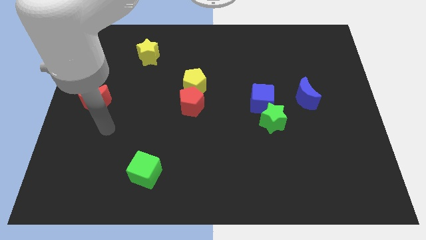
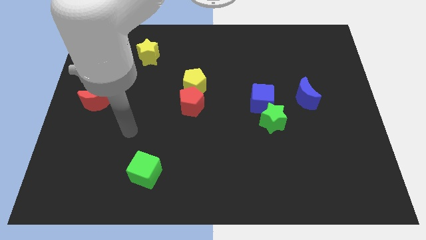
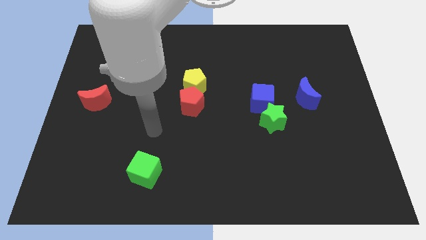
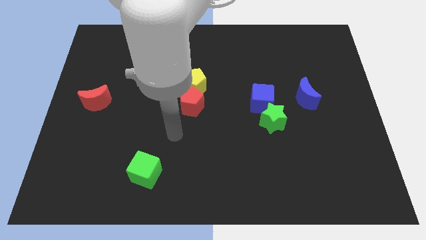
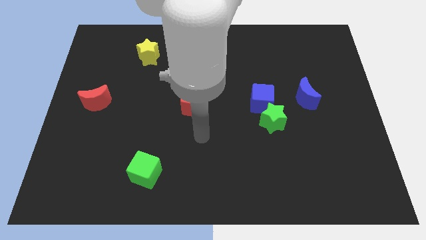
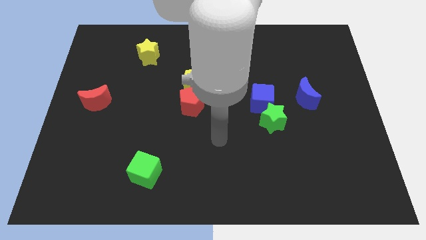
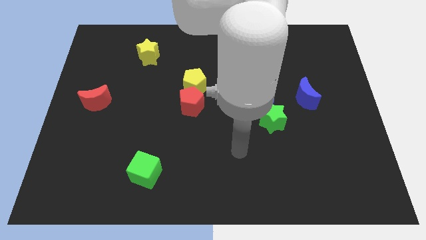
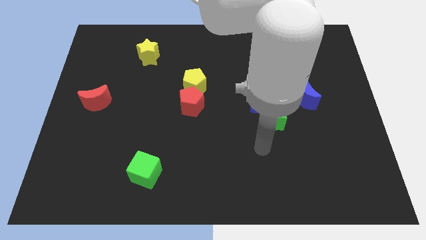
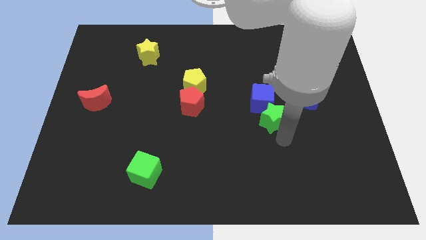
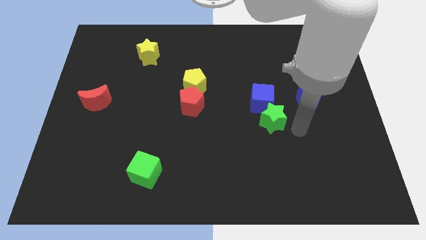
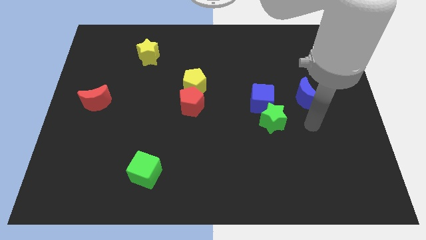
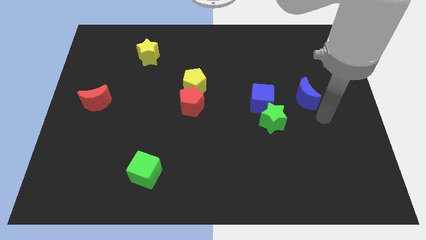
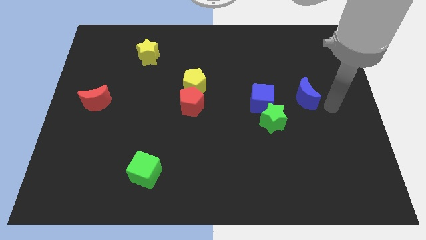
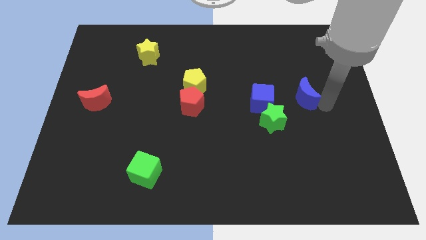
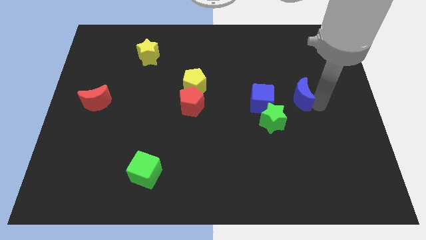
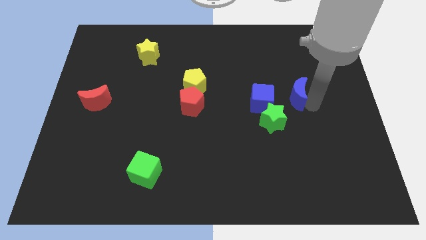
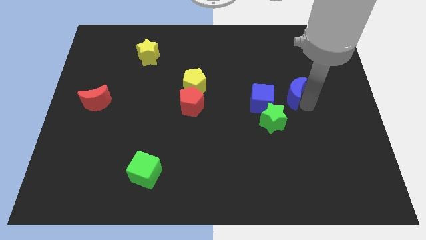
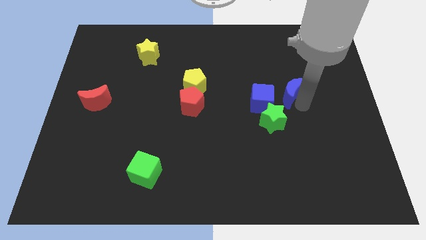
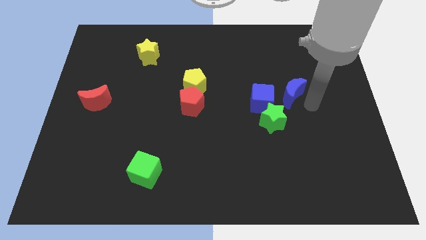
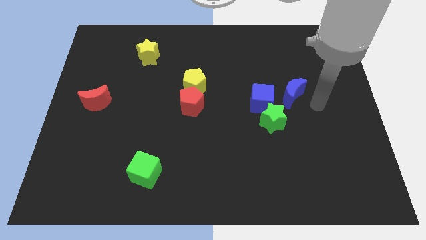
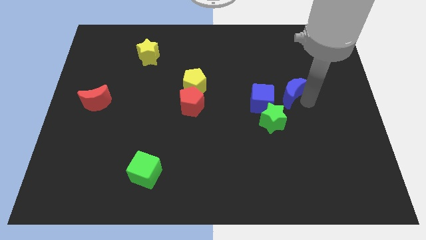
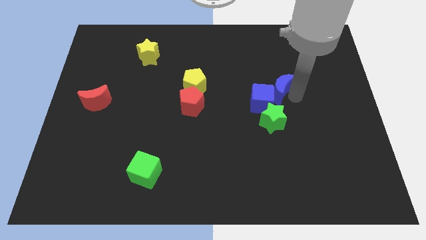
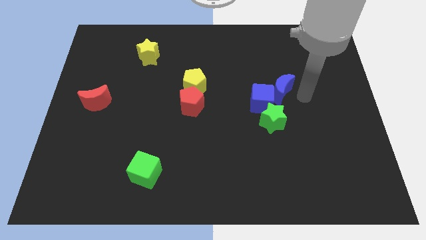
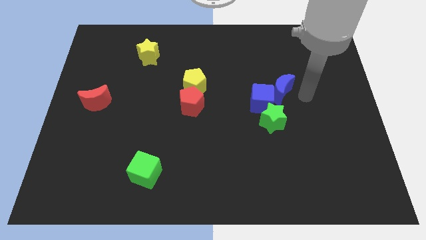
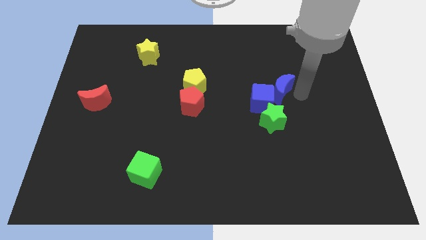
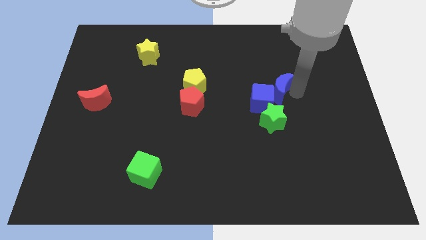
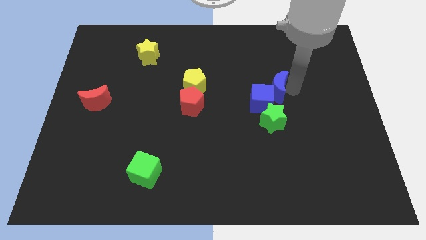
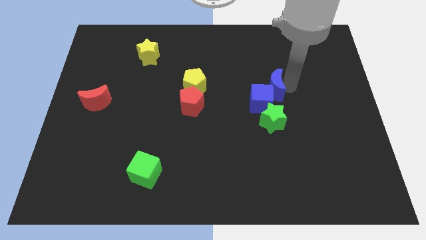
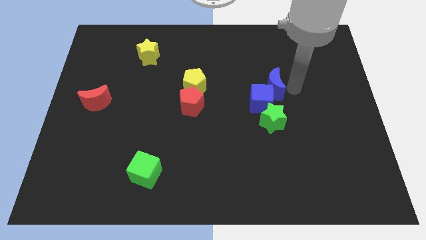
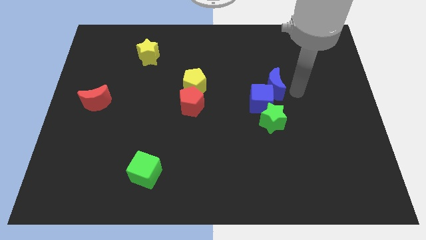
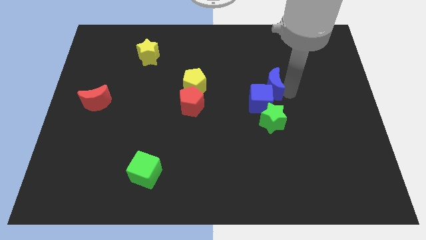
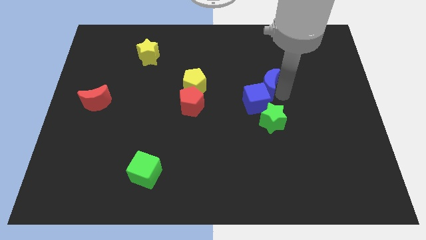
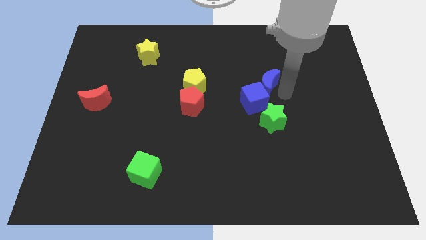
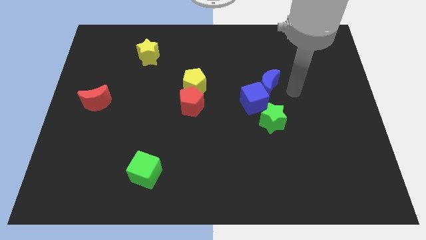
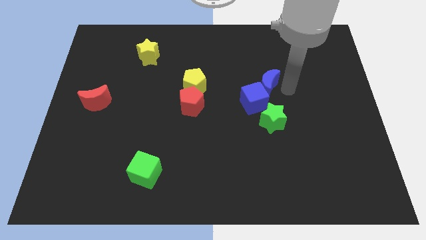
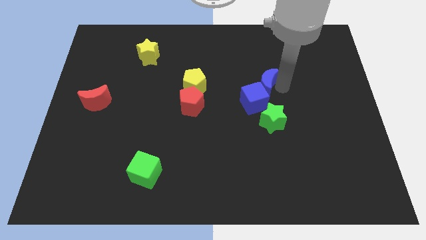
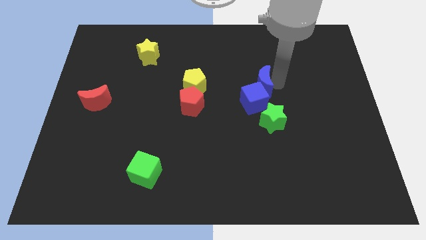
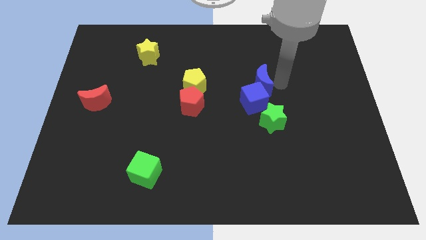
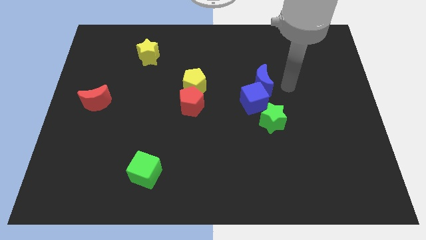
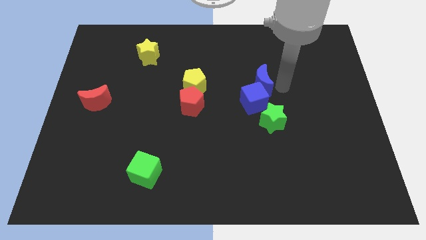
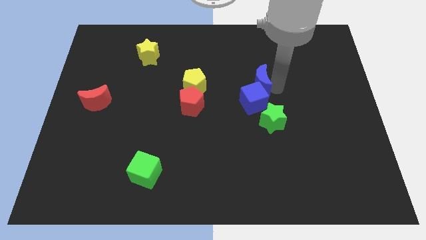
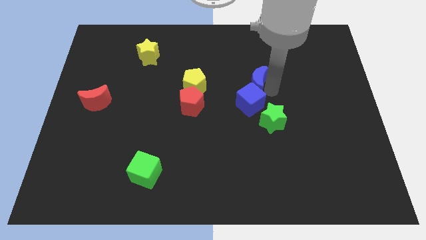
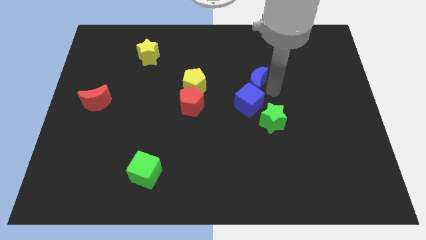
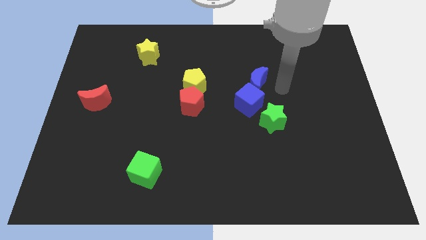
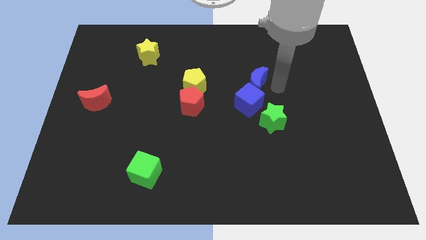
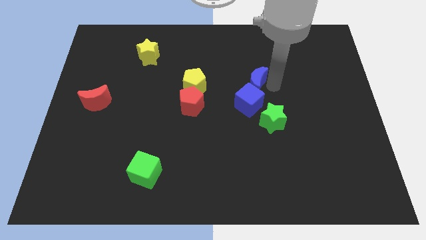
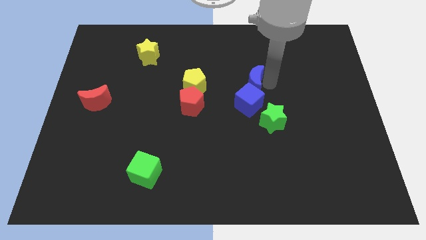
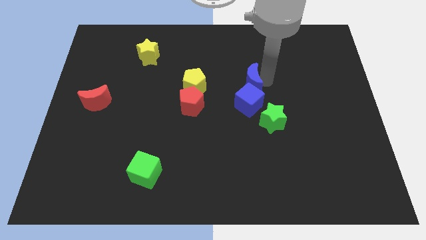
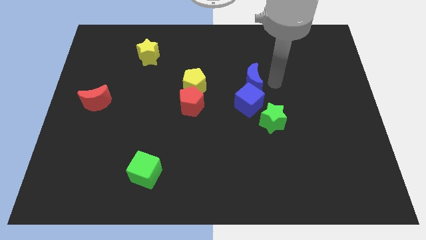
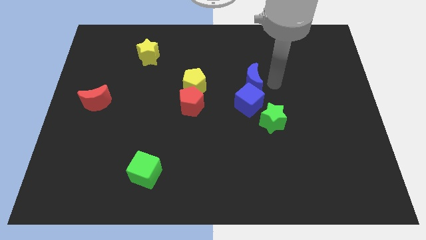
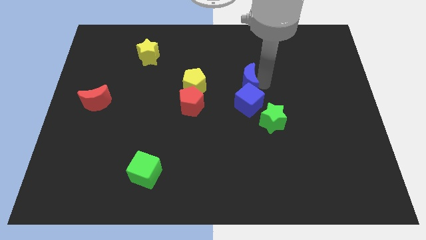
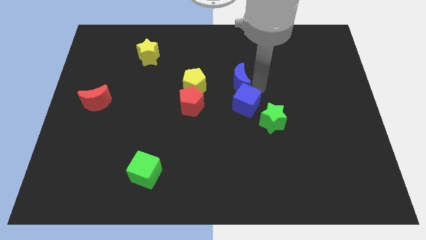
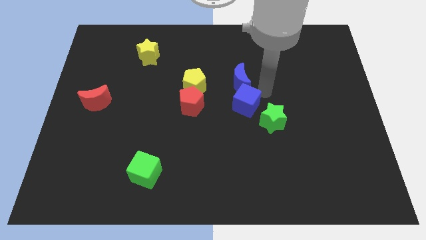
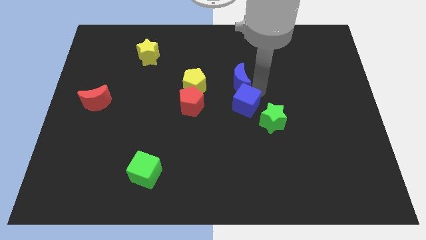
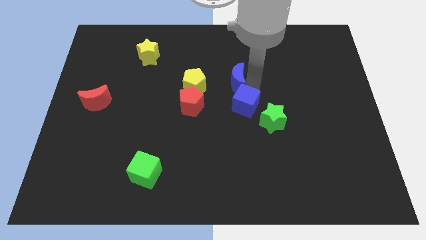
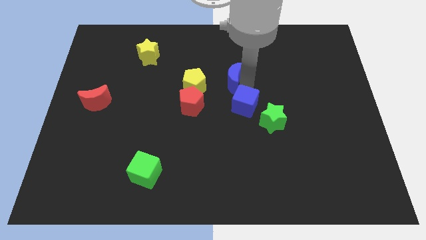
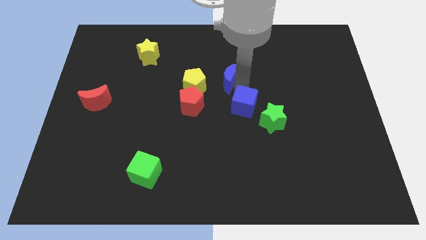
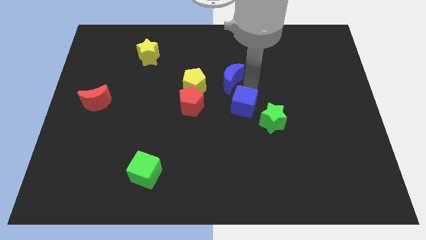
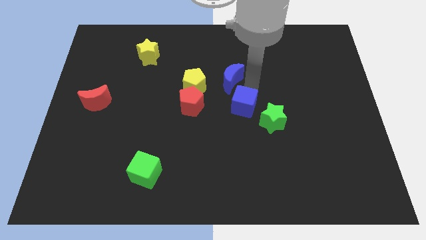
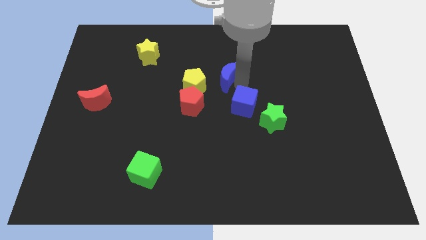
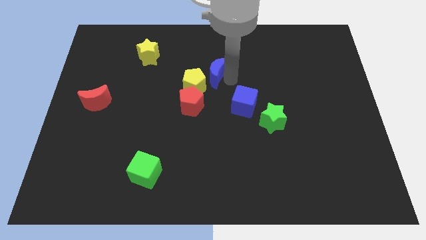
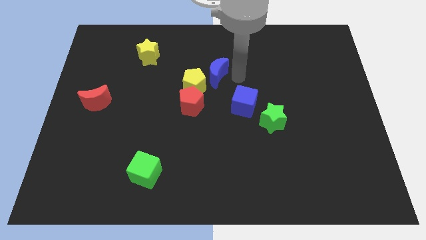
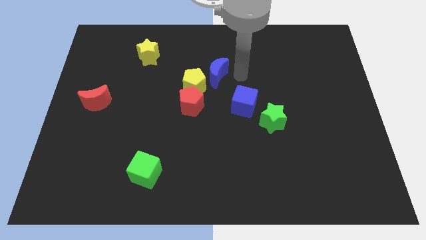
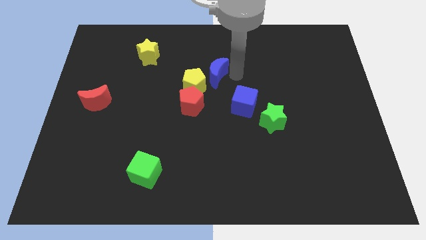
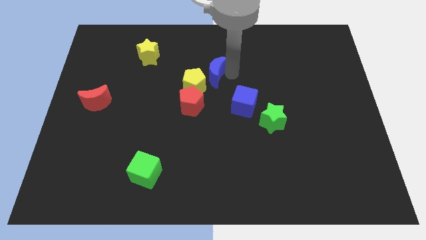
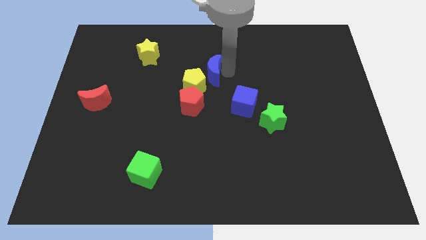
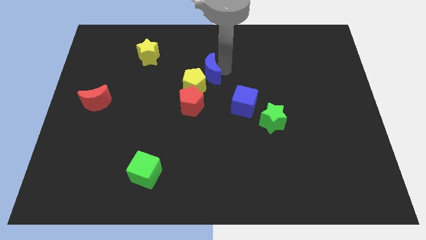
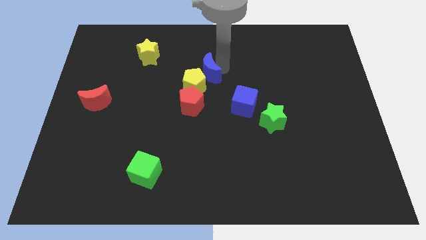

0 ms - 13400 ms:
push the blue moon left

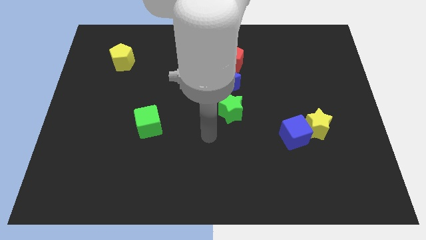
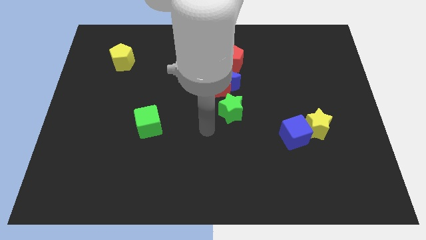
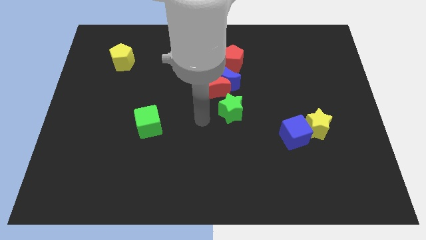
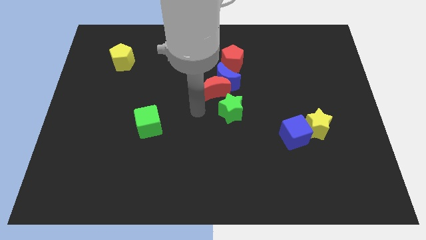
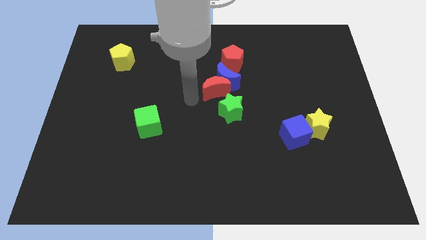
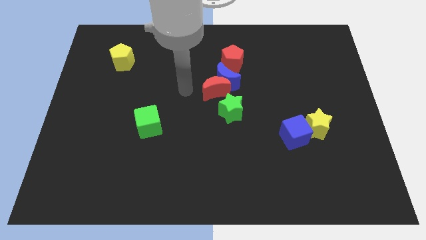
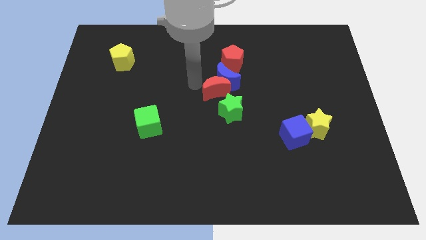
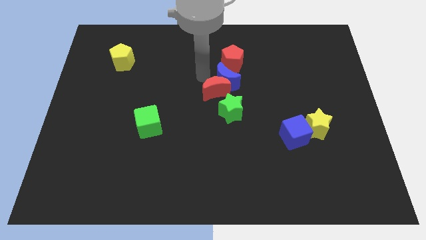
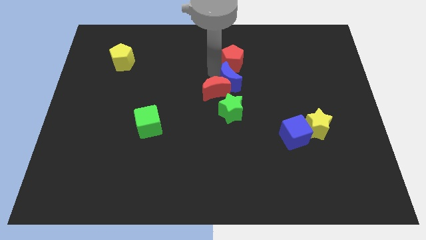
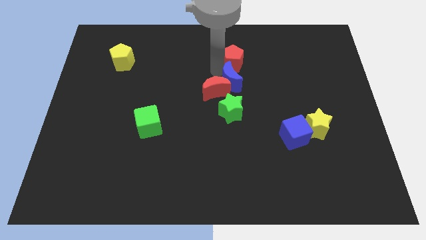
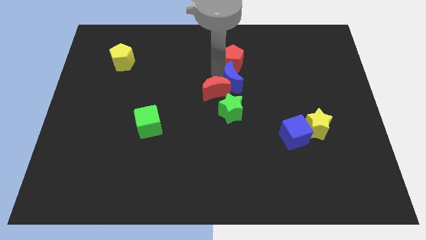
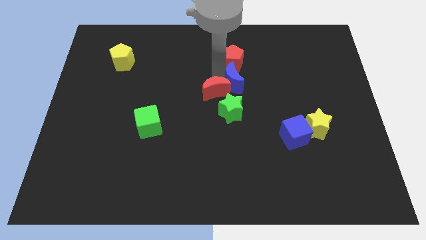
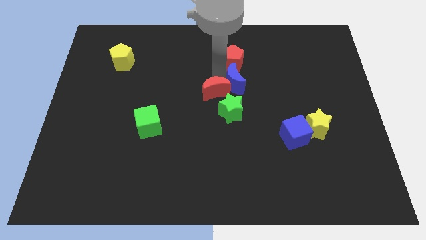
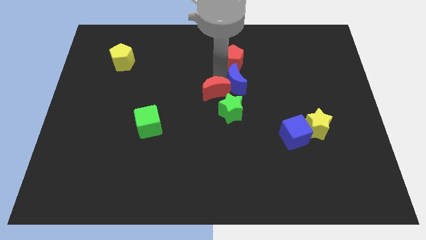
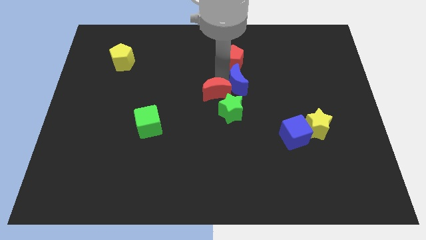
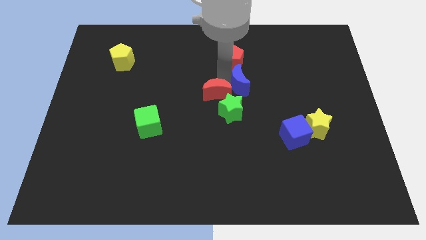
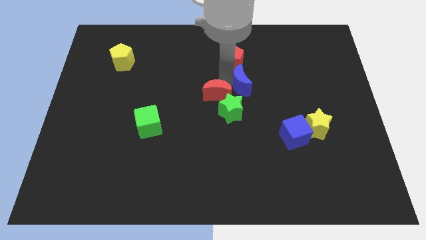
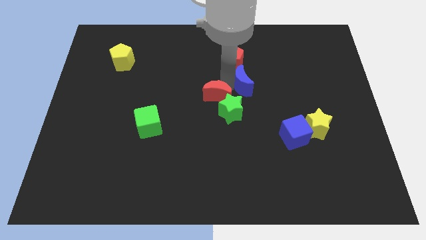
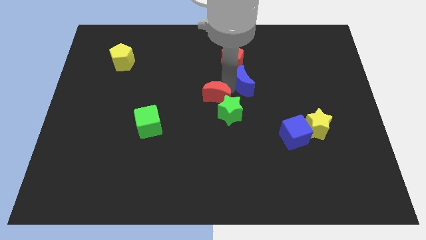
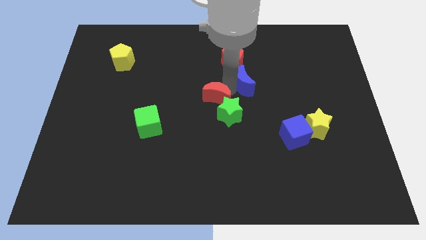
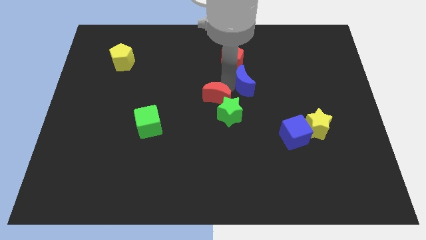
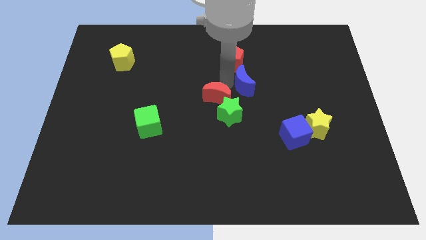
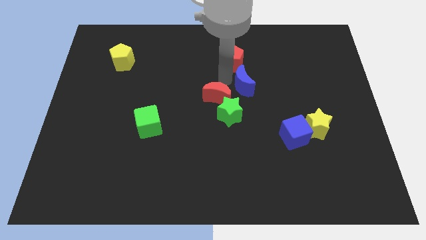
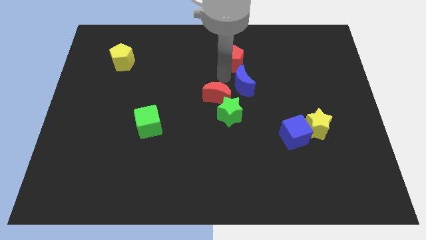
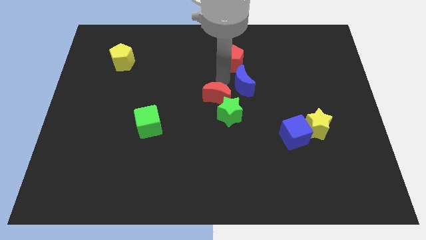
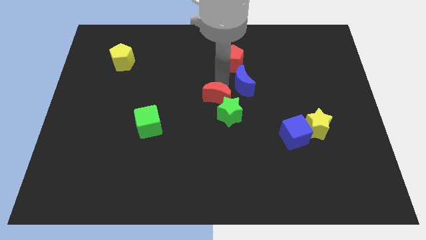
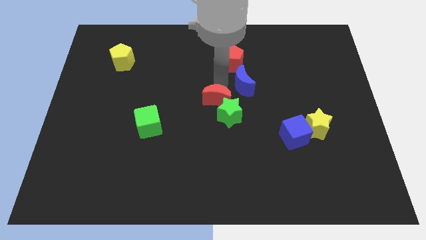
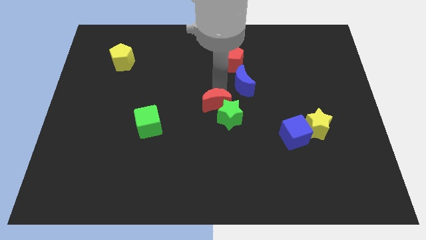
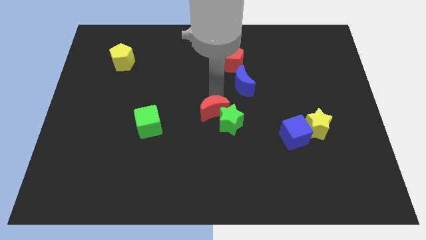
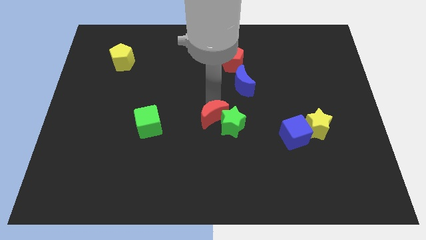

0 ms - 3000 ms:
move the red moon somewhat down
